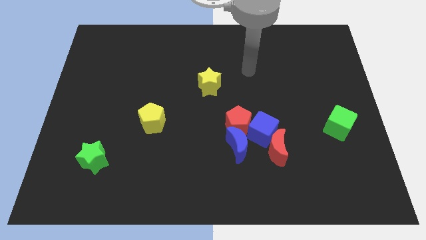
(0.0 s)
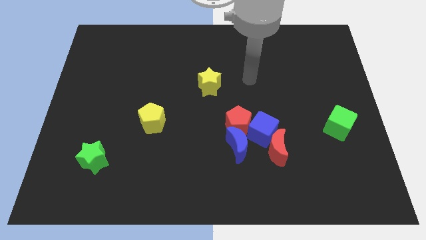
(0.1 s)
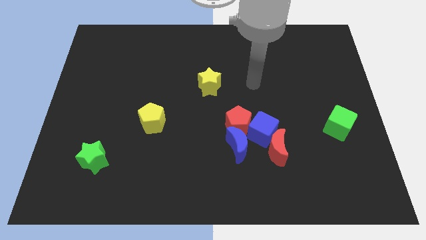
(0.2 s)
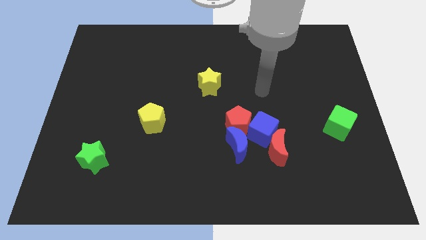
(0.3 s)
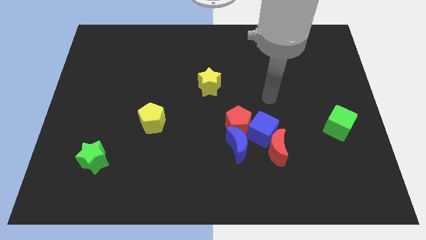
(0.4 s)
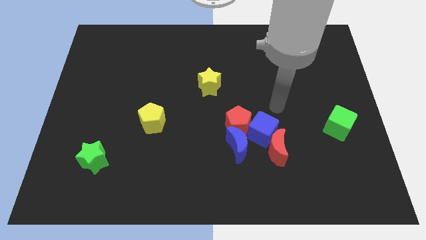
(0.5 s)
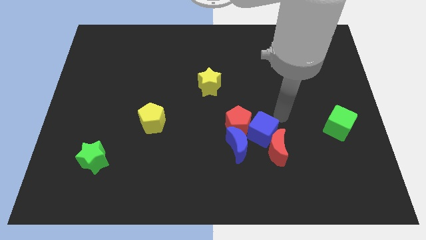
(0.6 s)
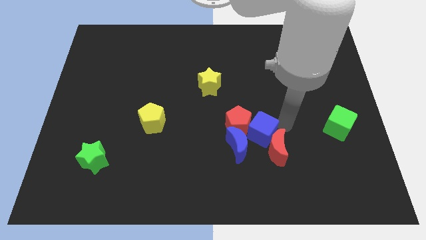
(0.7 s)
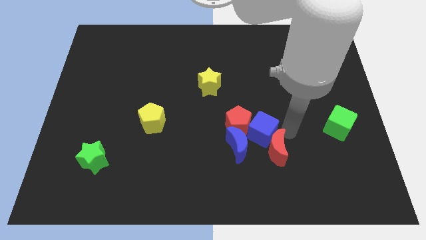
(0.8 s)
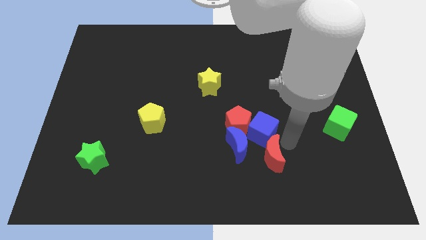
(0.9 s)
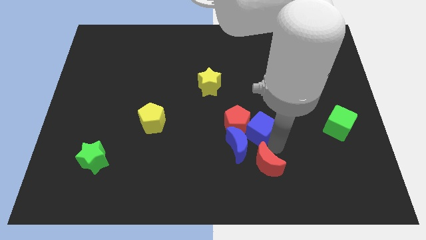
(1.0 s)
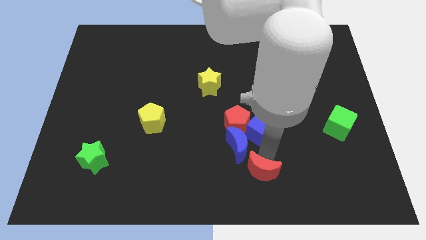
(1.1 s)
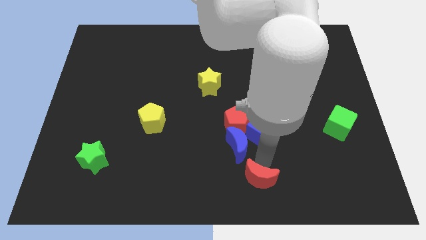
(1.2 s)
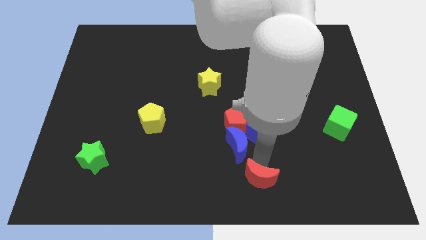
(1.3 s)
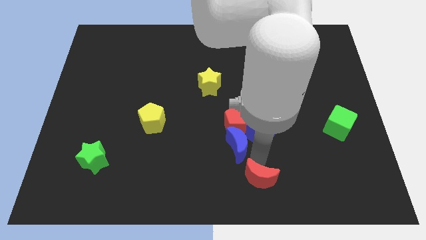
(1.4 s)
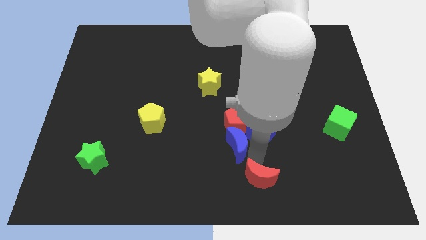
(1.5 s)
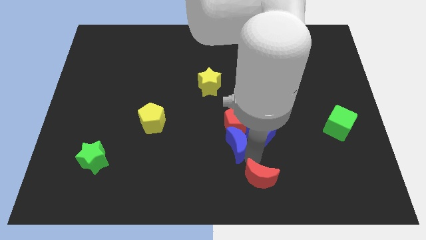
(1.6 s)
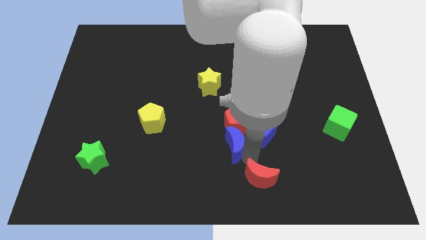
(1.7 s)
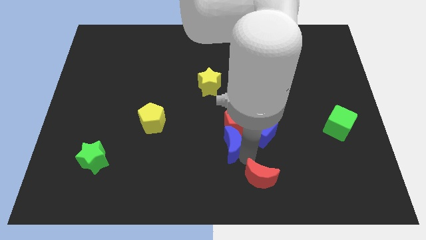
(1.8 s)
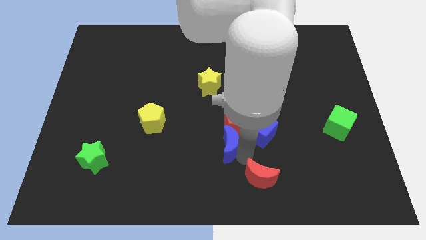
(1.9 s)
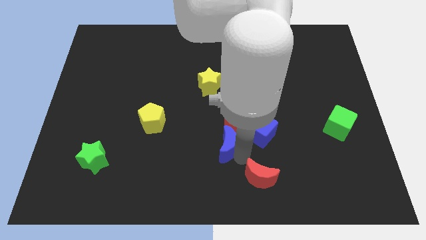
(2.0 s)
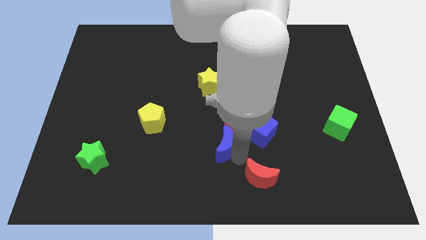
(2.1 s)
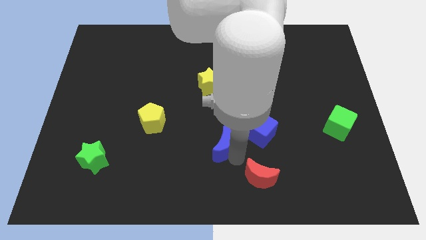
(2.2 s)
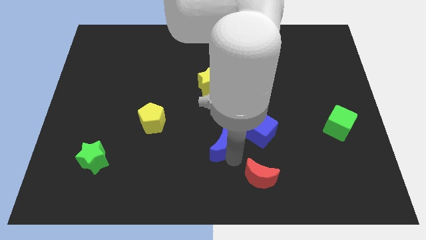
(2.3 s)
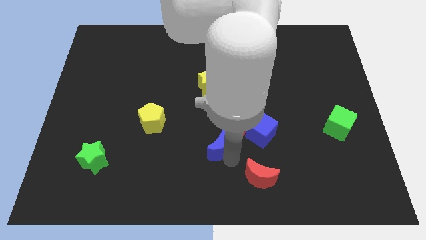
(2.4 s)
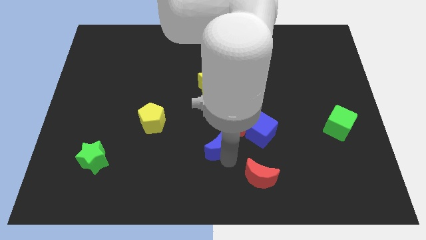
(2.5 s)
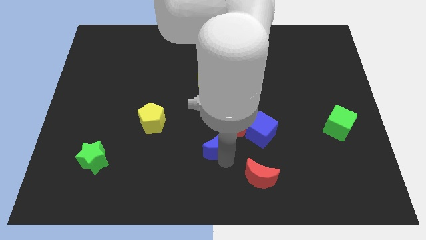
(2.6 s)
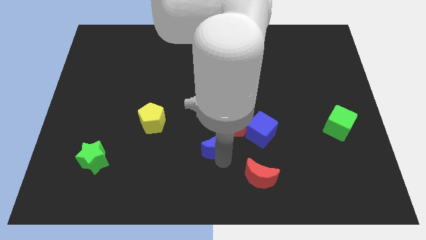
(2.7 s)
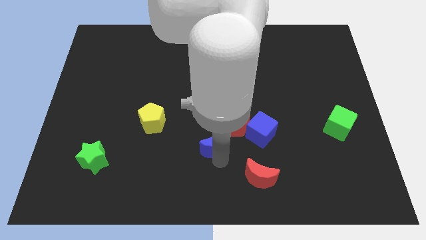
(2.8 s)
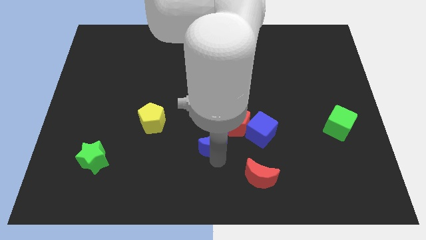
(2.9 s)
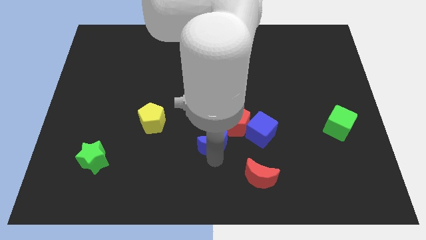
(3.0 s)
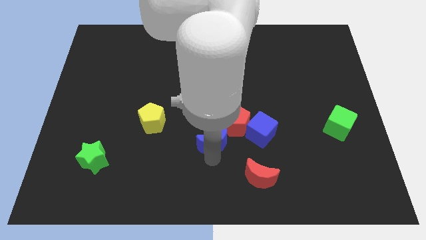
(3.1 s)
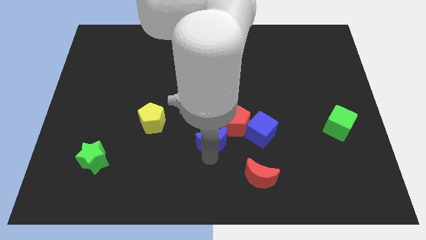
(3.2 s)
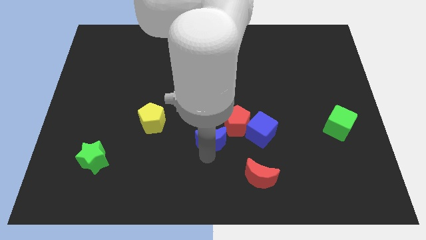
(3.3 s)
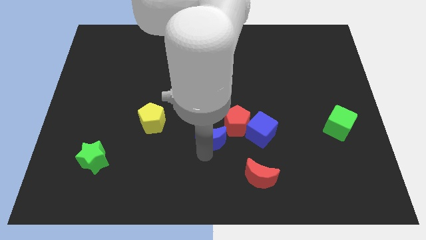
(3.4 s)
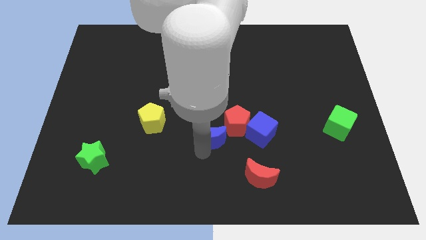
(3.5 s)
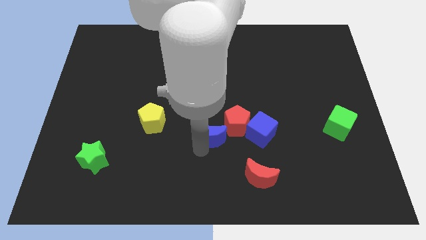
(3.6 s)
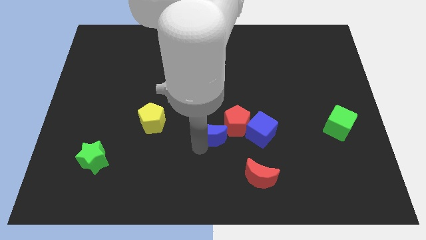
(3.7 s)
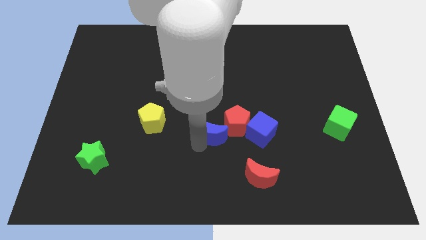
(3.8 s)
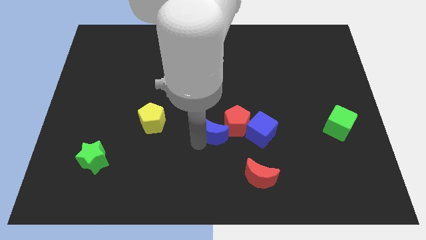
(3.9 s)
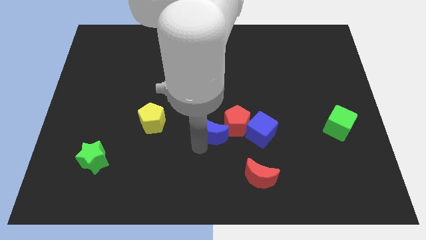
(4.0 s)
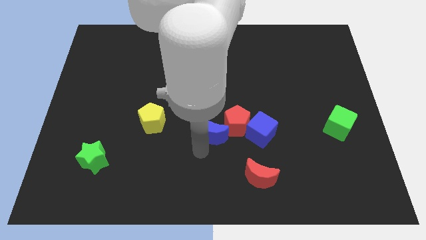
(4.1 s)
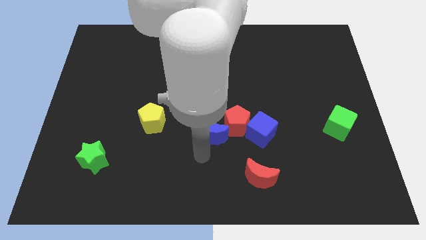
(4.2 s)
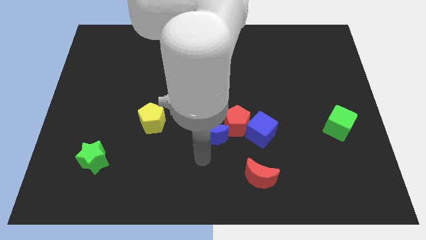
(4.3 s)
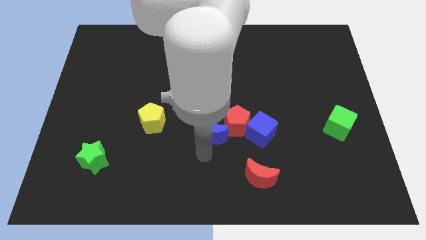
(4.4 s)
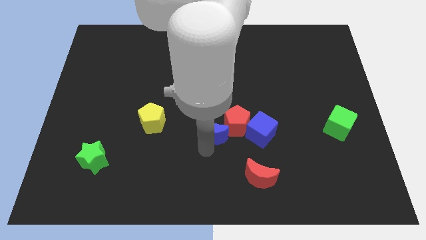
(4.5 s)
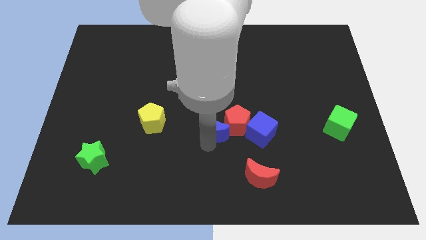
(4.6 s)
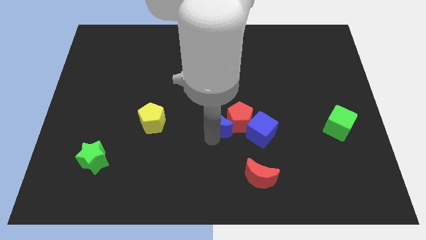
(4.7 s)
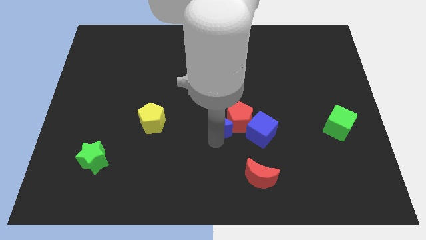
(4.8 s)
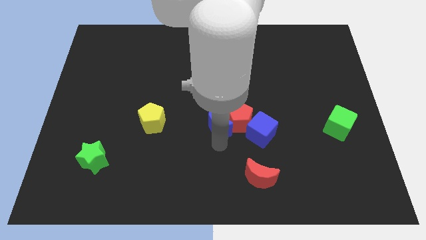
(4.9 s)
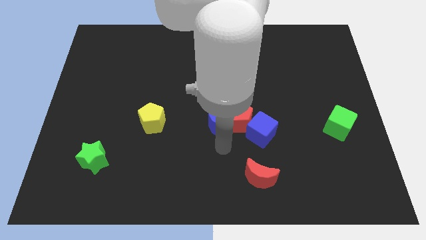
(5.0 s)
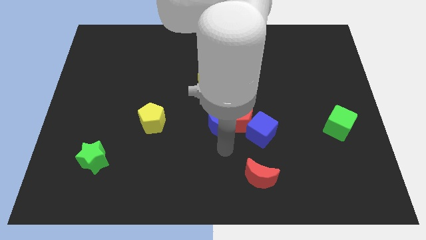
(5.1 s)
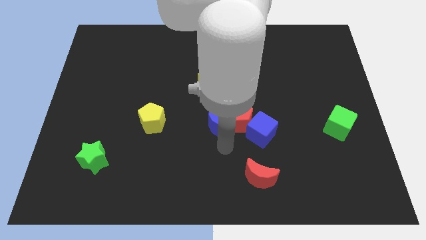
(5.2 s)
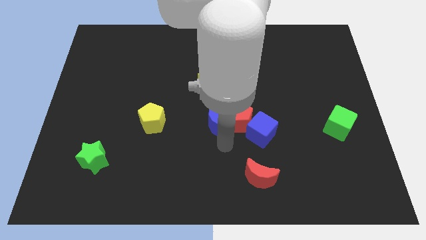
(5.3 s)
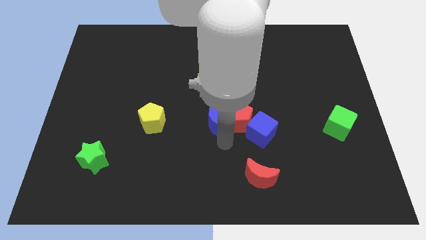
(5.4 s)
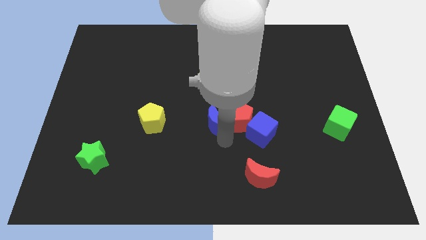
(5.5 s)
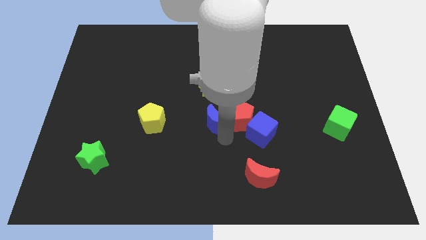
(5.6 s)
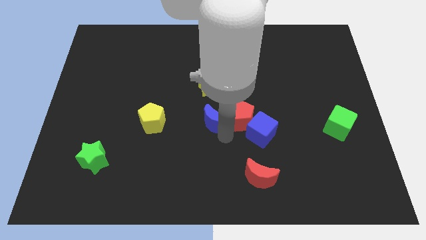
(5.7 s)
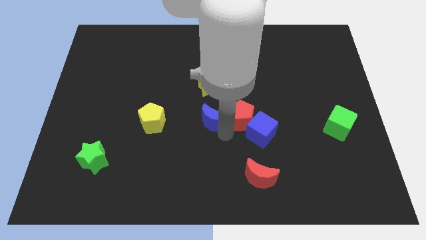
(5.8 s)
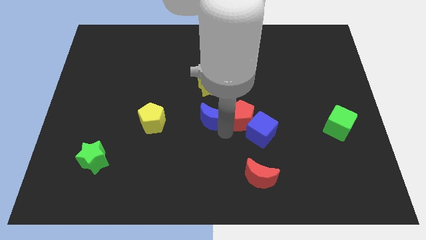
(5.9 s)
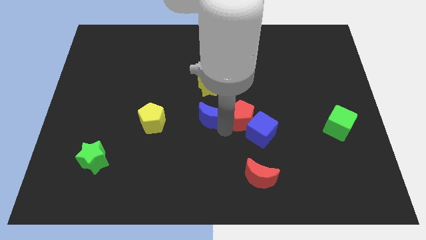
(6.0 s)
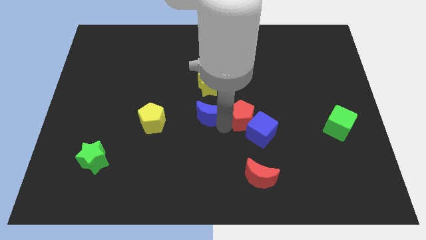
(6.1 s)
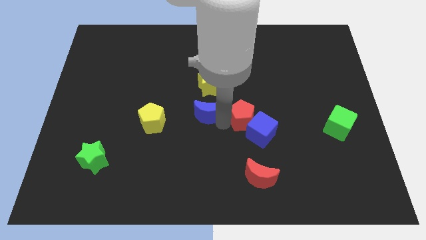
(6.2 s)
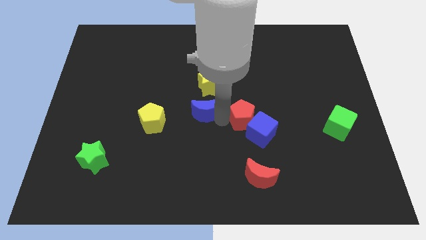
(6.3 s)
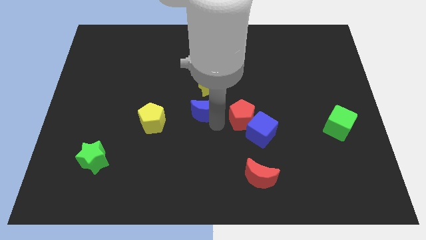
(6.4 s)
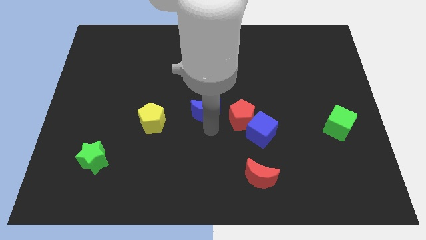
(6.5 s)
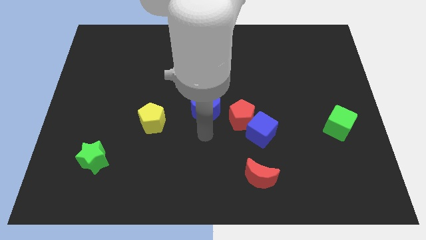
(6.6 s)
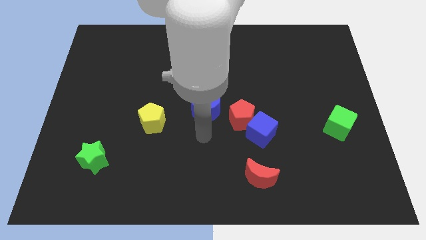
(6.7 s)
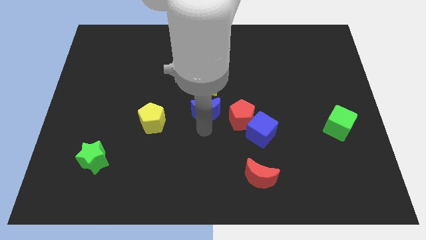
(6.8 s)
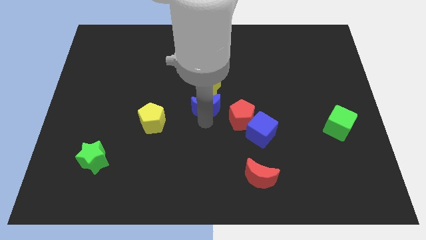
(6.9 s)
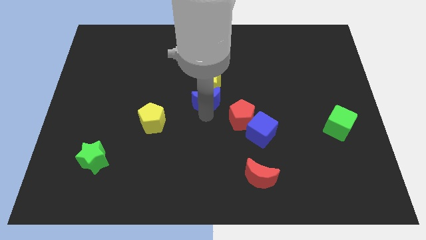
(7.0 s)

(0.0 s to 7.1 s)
put the blue moon to the yellow star
